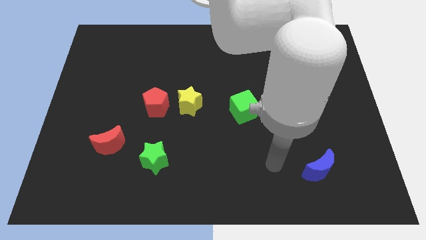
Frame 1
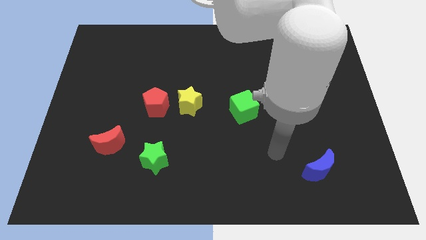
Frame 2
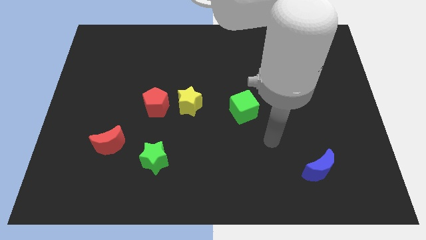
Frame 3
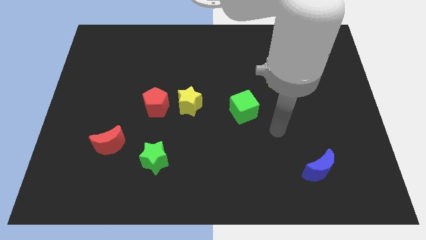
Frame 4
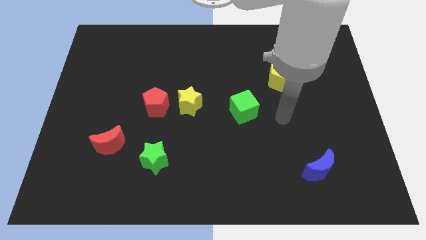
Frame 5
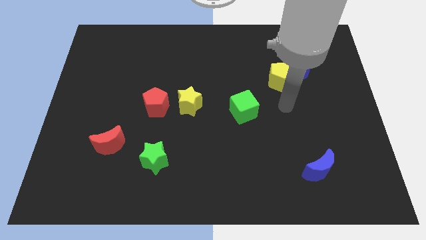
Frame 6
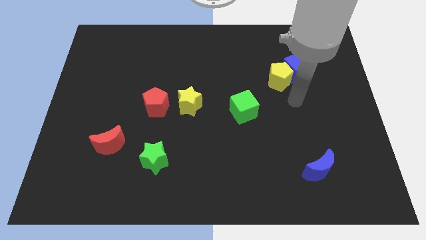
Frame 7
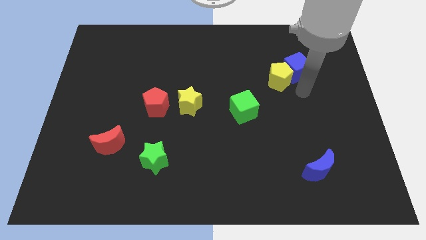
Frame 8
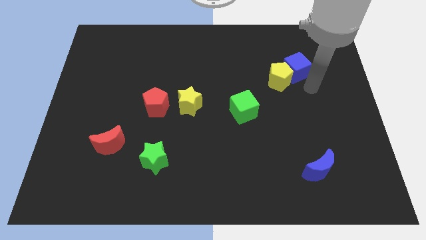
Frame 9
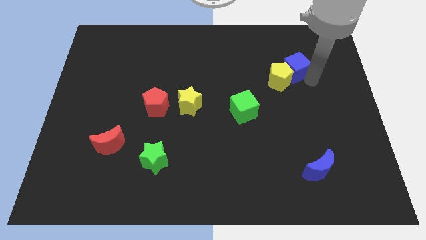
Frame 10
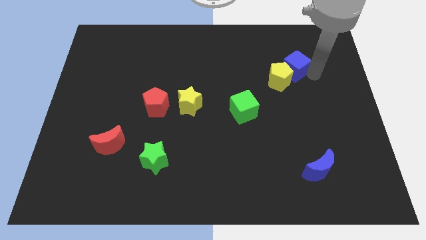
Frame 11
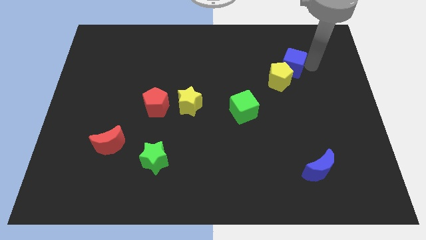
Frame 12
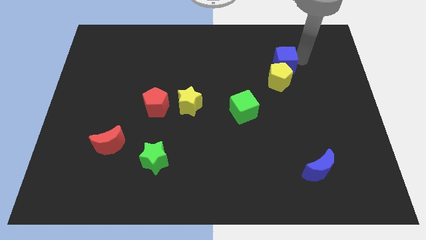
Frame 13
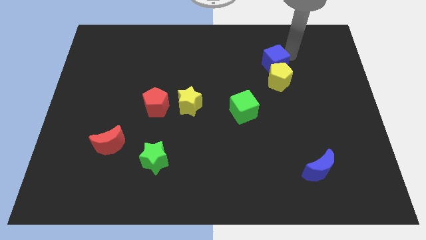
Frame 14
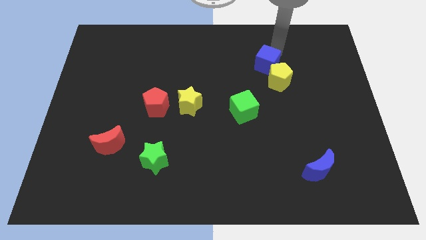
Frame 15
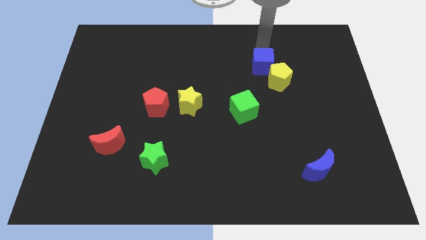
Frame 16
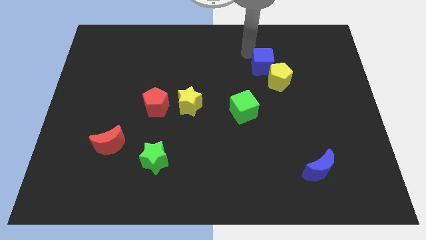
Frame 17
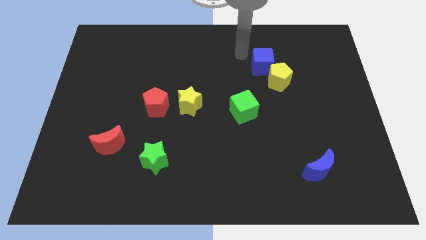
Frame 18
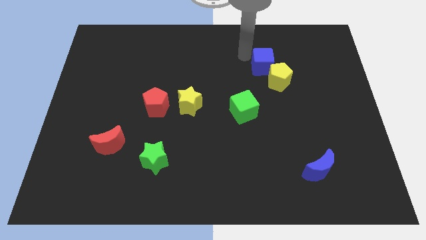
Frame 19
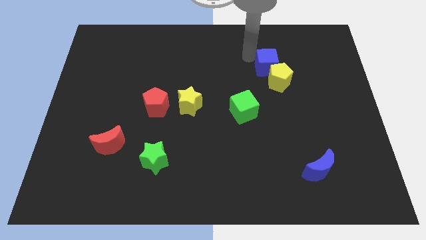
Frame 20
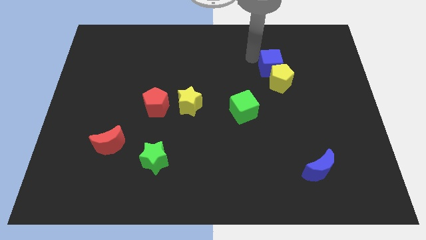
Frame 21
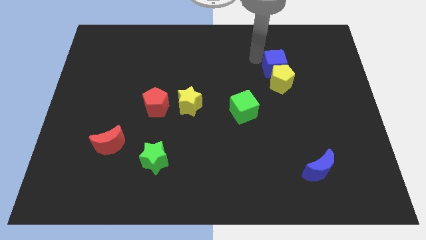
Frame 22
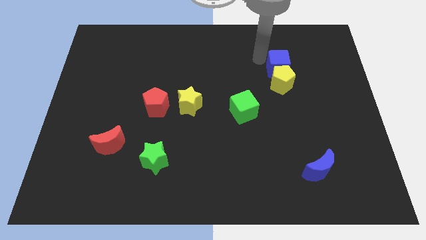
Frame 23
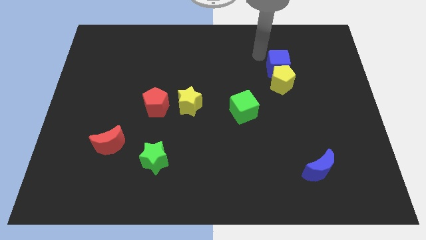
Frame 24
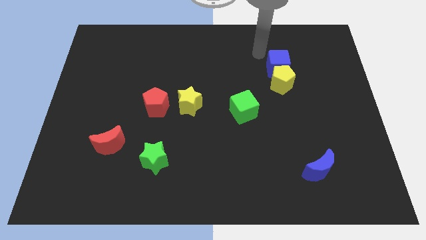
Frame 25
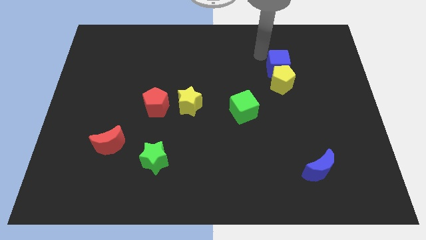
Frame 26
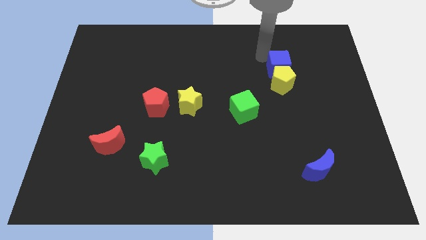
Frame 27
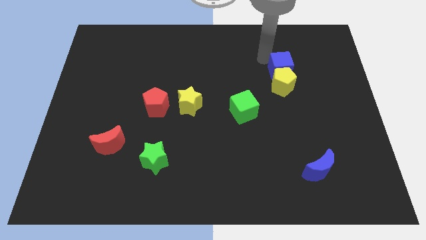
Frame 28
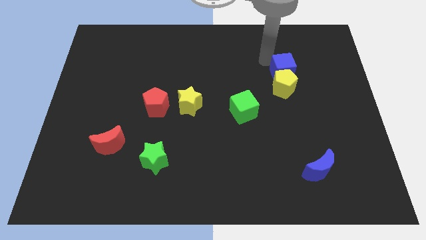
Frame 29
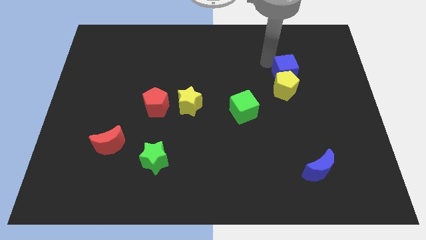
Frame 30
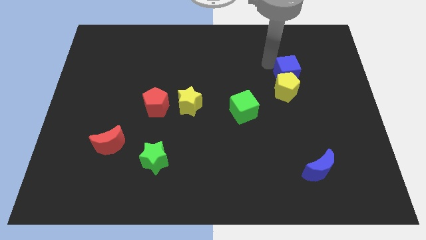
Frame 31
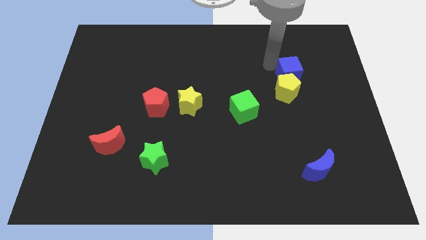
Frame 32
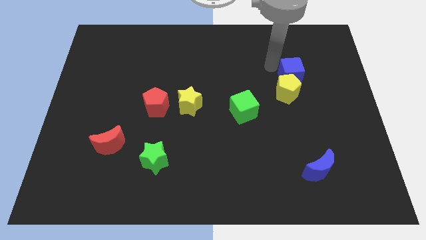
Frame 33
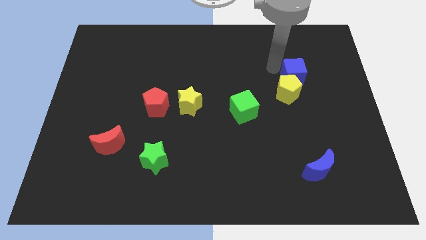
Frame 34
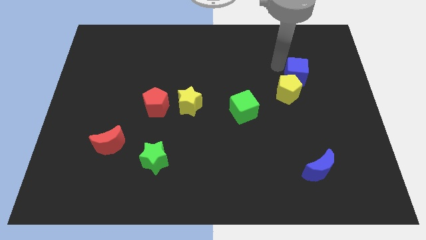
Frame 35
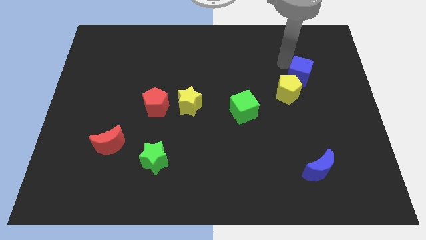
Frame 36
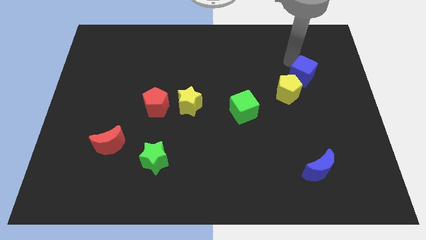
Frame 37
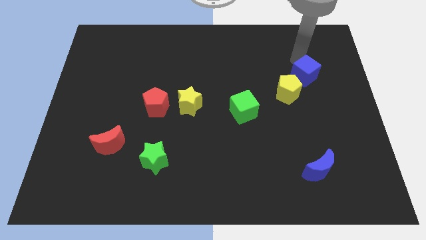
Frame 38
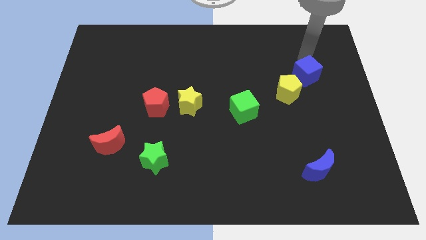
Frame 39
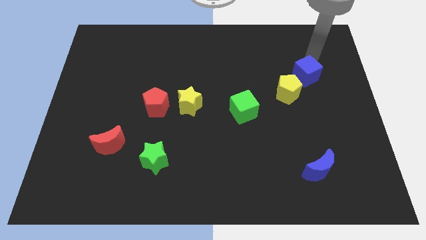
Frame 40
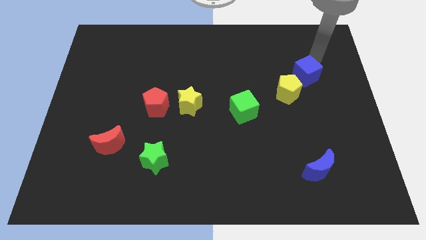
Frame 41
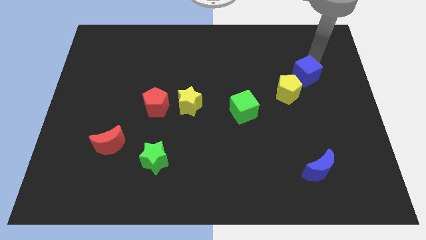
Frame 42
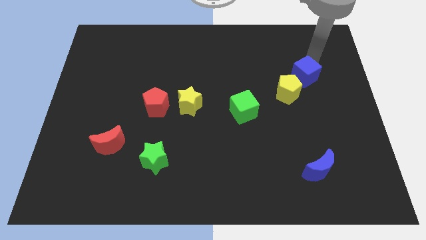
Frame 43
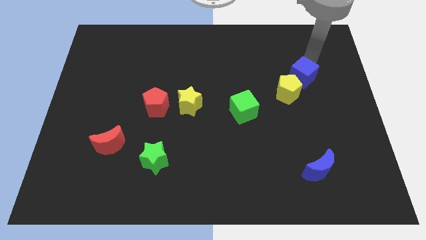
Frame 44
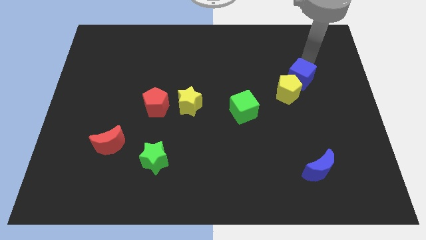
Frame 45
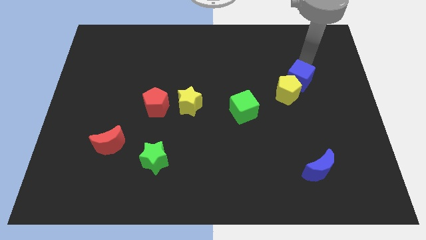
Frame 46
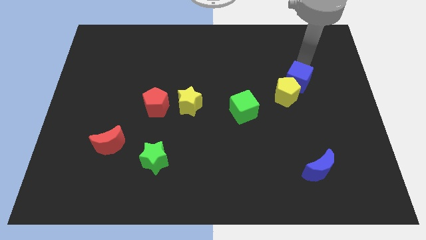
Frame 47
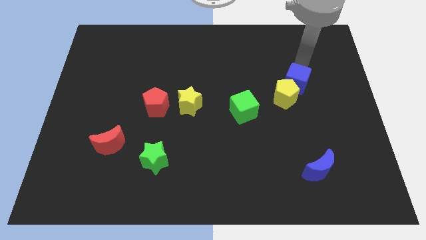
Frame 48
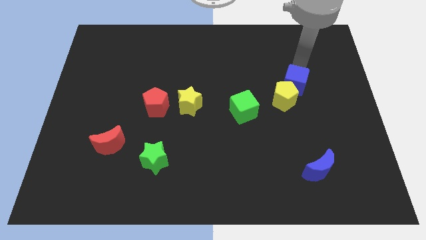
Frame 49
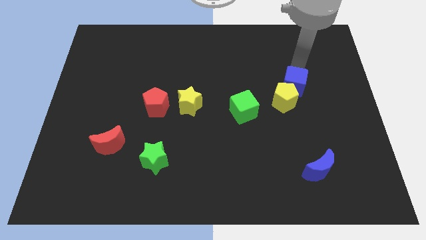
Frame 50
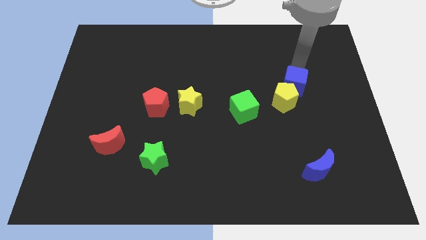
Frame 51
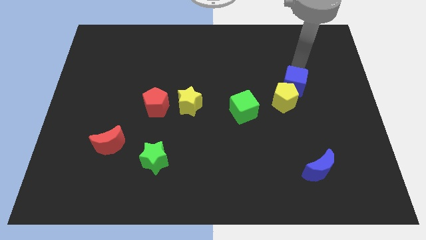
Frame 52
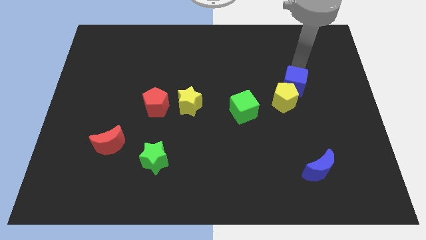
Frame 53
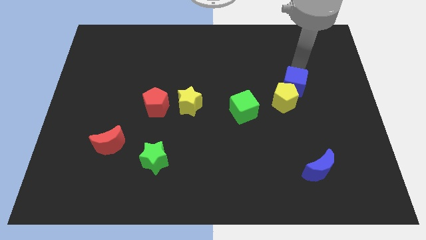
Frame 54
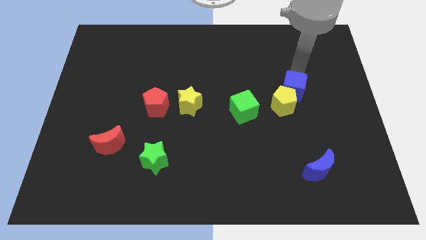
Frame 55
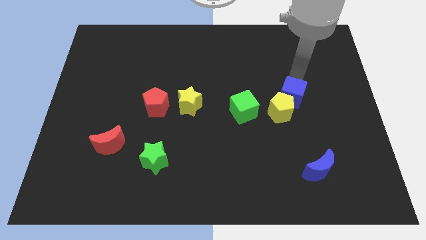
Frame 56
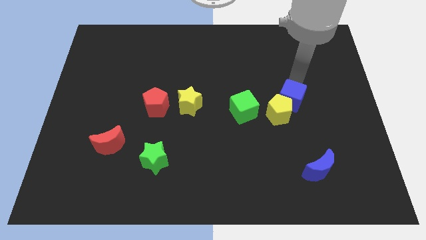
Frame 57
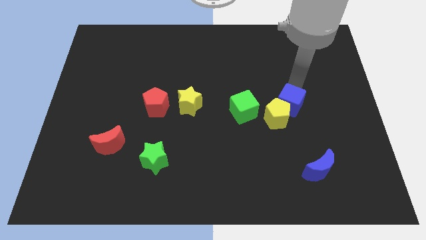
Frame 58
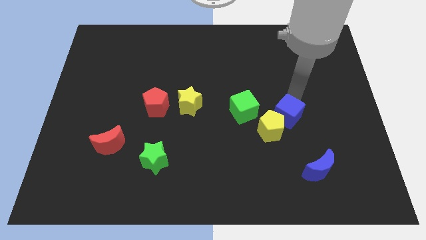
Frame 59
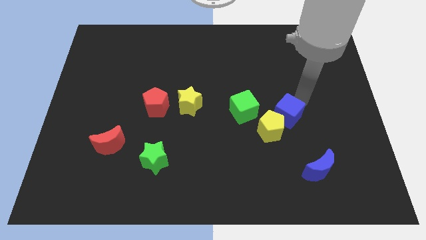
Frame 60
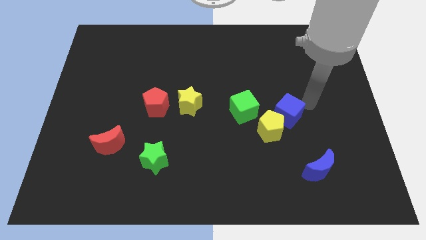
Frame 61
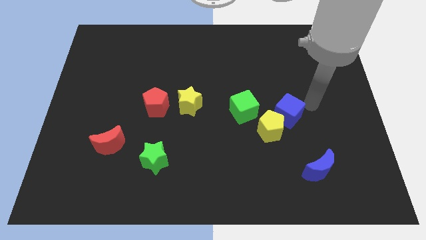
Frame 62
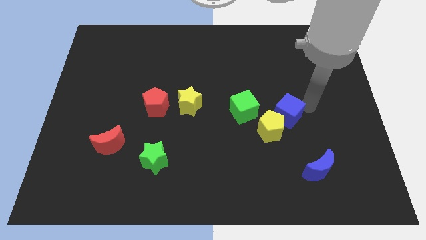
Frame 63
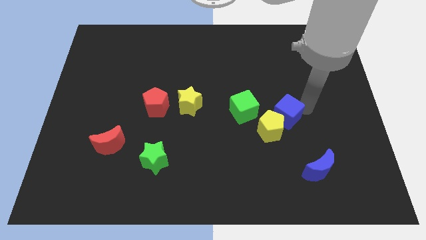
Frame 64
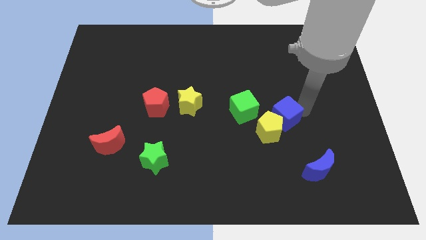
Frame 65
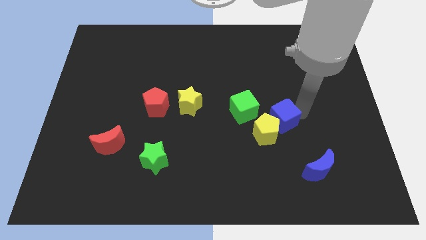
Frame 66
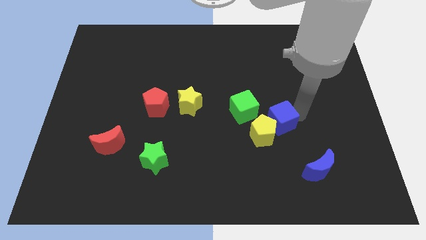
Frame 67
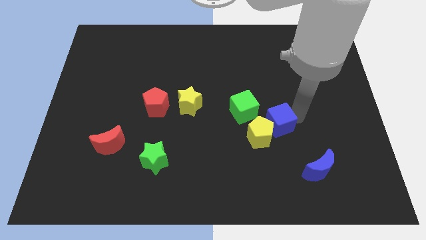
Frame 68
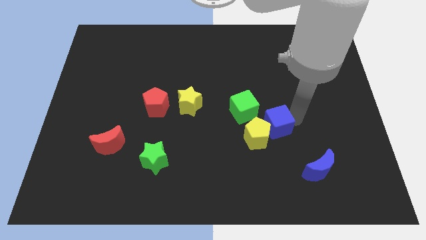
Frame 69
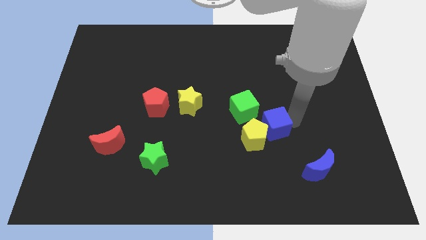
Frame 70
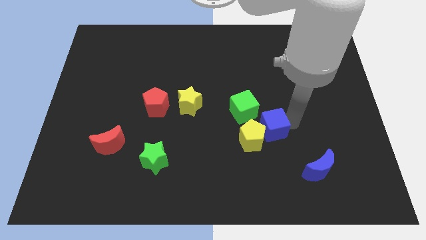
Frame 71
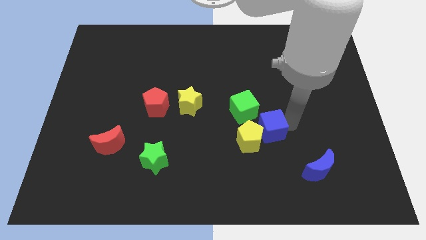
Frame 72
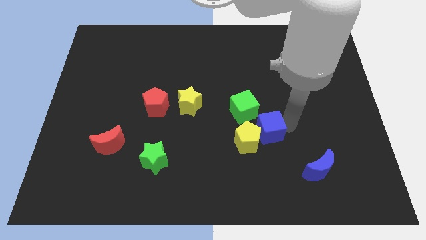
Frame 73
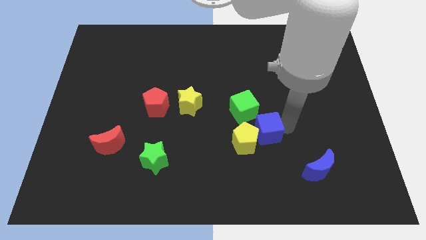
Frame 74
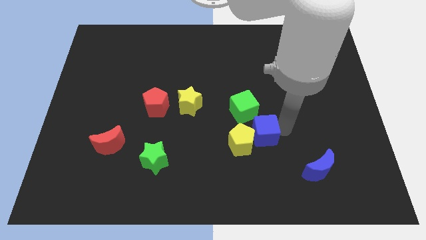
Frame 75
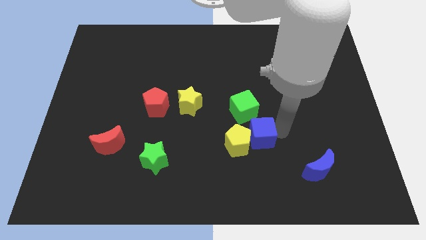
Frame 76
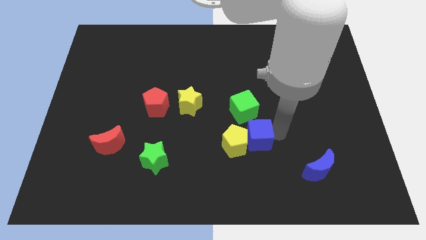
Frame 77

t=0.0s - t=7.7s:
move the blue cube downwards and then to the left

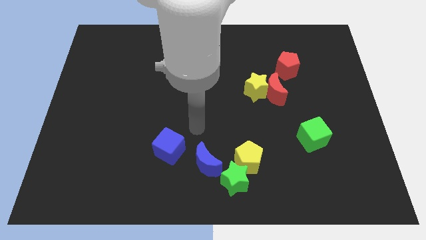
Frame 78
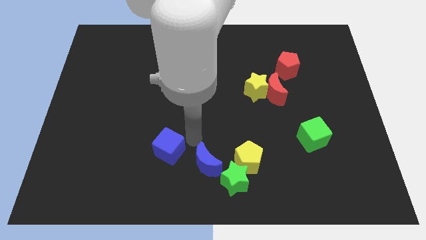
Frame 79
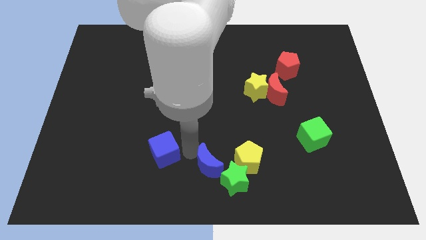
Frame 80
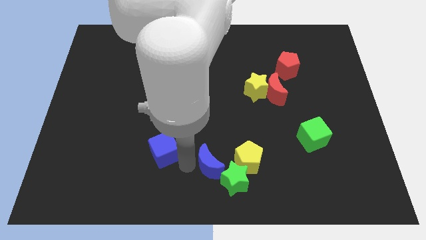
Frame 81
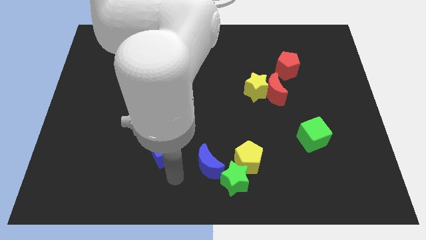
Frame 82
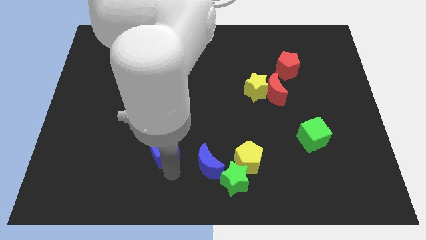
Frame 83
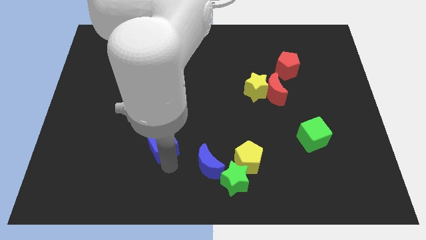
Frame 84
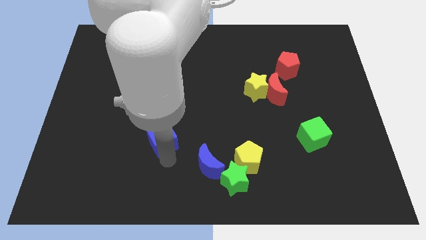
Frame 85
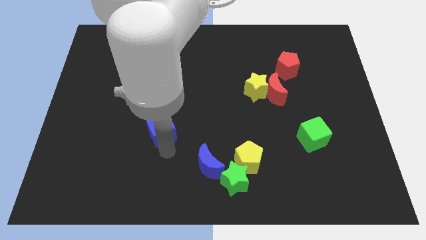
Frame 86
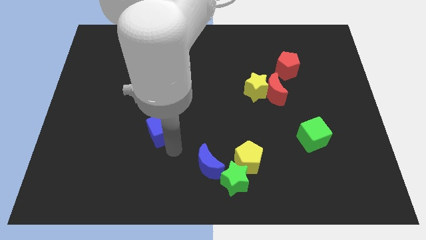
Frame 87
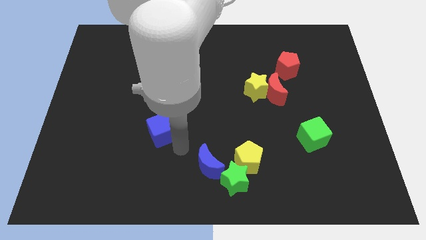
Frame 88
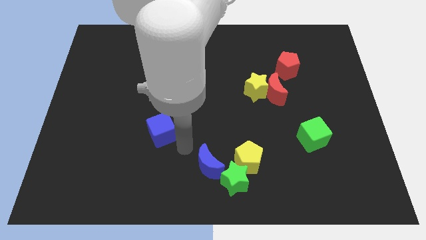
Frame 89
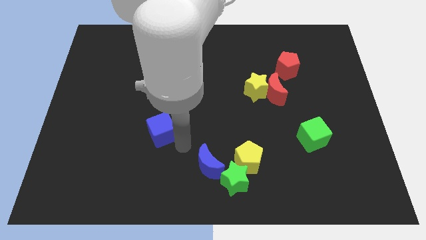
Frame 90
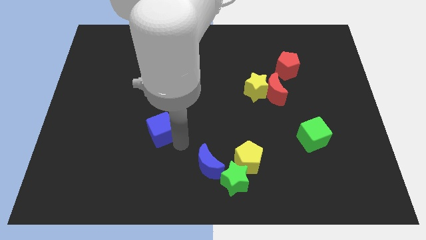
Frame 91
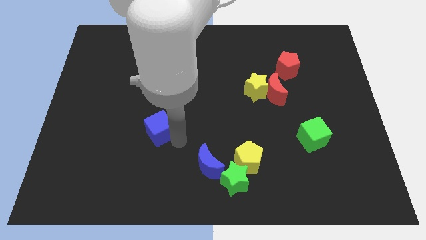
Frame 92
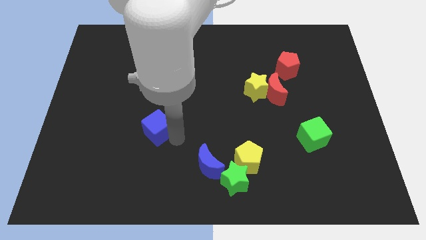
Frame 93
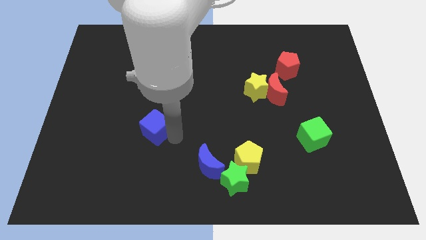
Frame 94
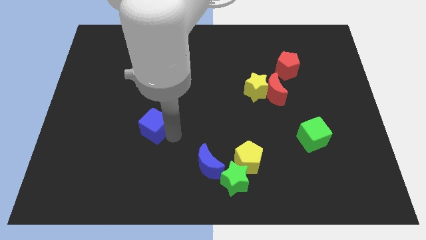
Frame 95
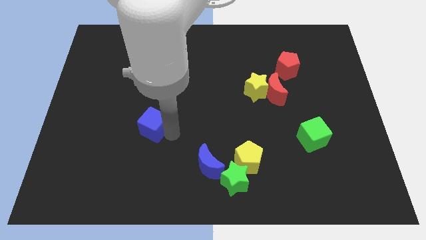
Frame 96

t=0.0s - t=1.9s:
slightly move the blue cube upwards and left
